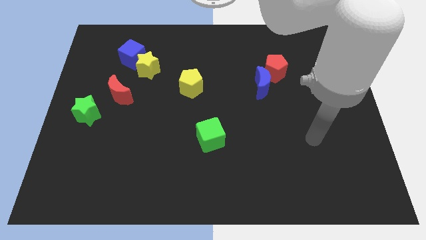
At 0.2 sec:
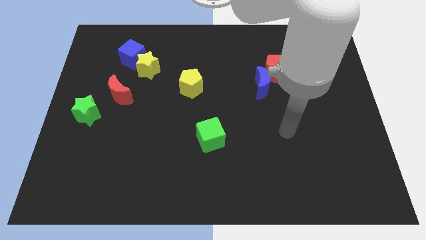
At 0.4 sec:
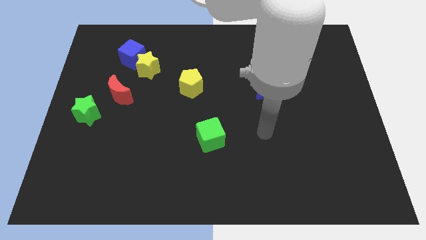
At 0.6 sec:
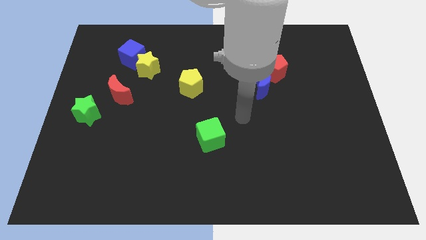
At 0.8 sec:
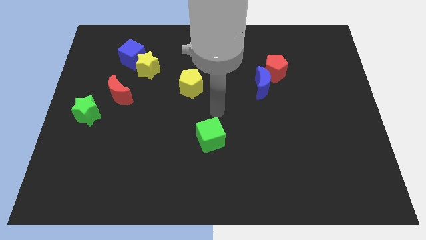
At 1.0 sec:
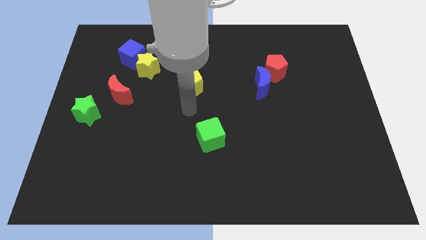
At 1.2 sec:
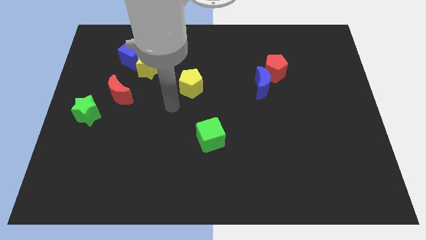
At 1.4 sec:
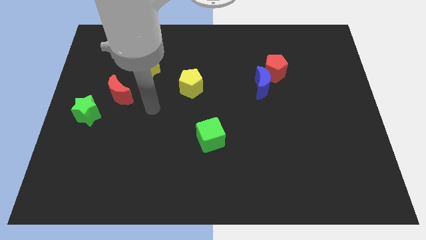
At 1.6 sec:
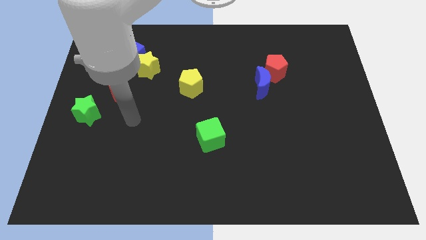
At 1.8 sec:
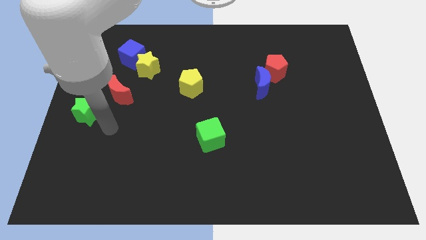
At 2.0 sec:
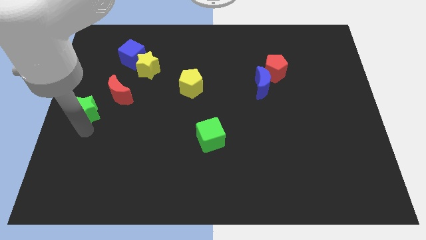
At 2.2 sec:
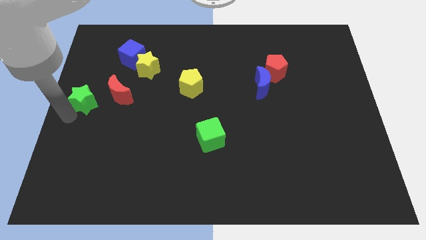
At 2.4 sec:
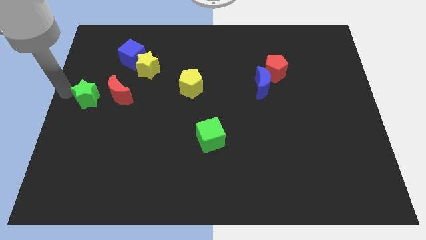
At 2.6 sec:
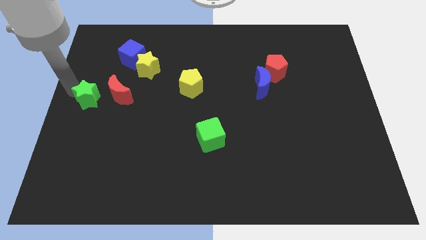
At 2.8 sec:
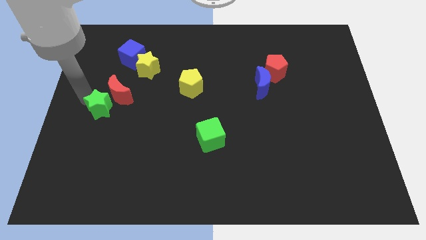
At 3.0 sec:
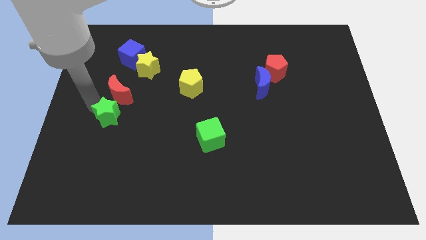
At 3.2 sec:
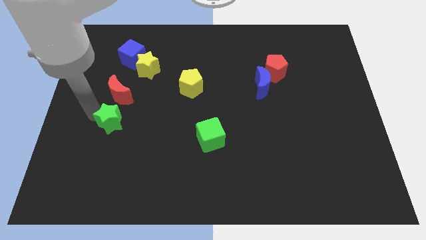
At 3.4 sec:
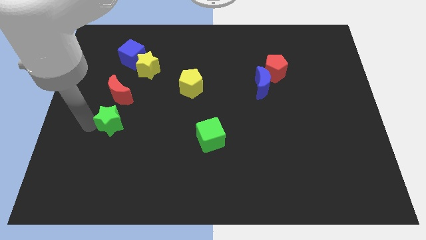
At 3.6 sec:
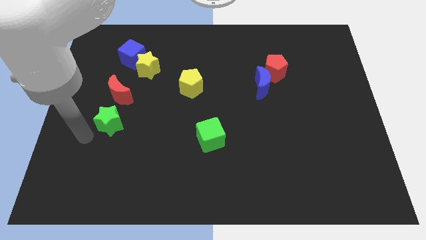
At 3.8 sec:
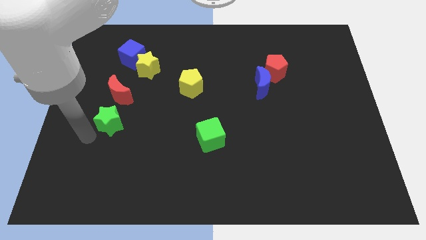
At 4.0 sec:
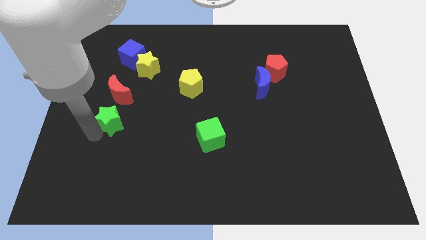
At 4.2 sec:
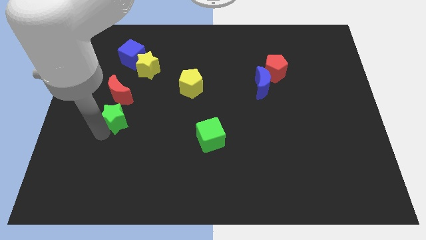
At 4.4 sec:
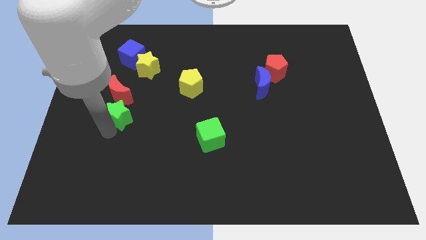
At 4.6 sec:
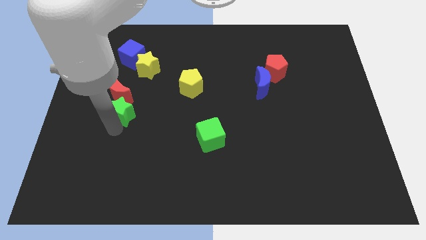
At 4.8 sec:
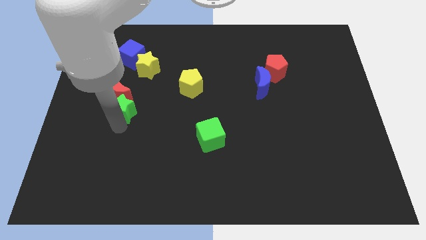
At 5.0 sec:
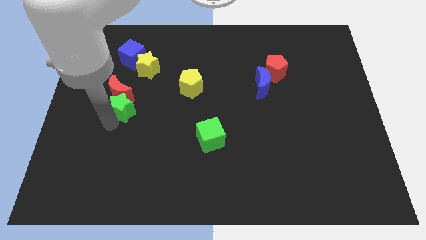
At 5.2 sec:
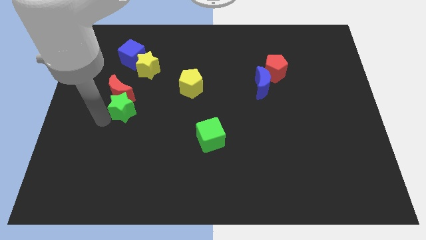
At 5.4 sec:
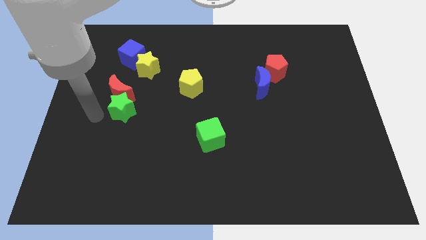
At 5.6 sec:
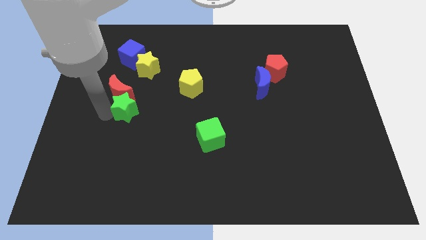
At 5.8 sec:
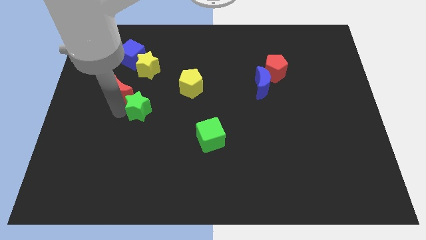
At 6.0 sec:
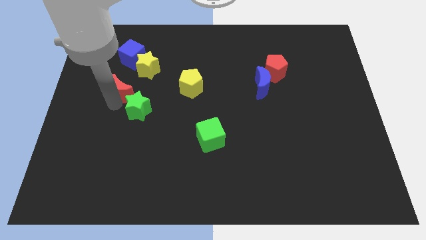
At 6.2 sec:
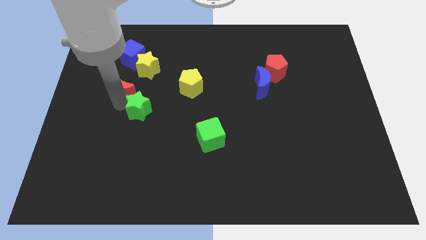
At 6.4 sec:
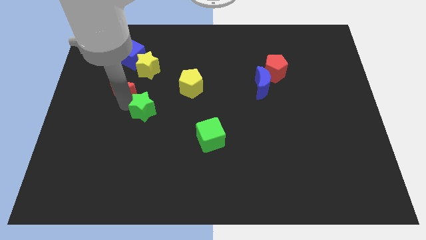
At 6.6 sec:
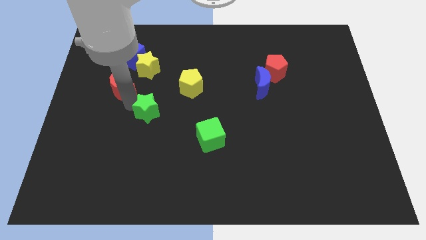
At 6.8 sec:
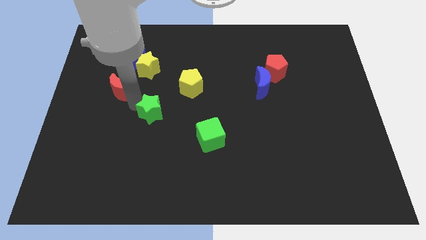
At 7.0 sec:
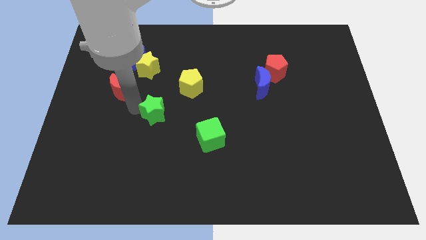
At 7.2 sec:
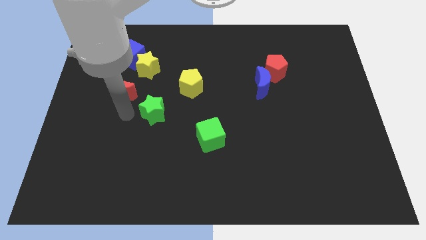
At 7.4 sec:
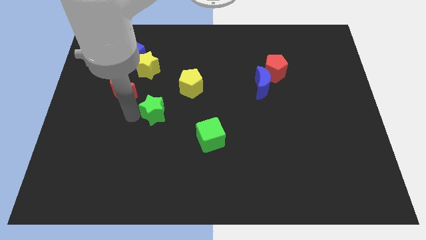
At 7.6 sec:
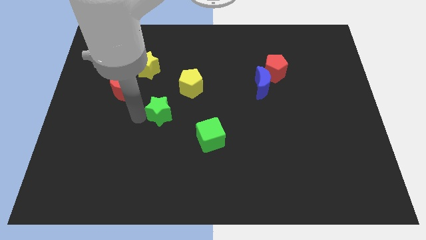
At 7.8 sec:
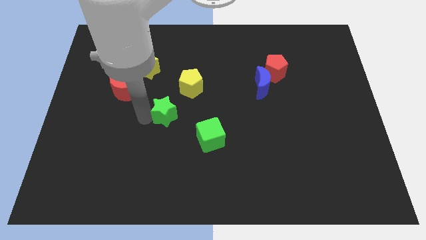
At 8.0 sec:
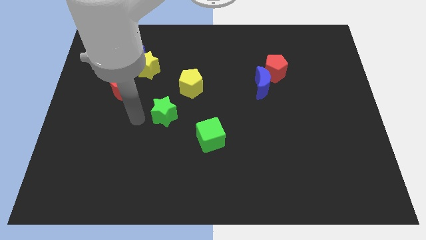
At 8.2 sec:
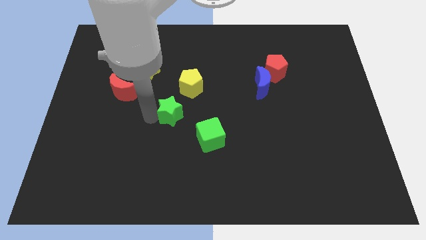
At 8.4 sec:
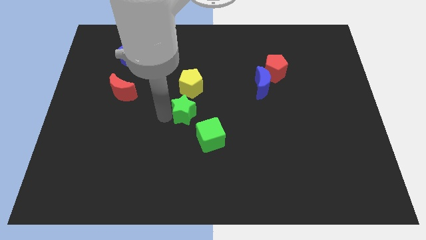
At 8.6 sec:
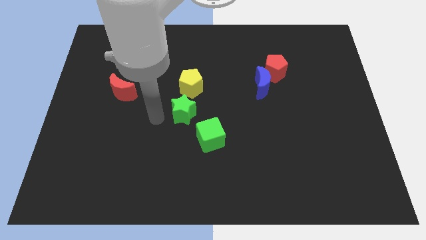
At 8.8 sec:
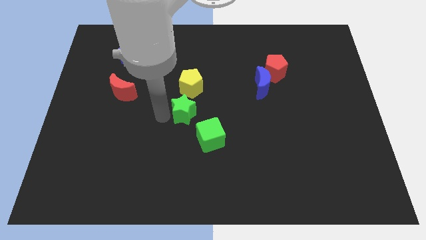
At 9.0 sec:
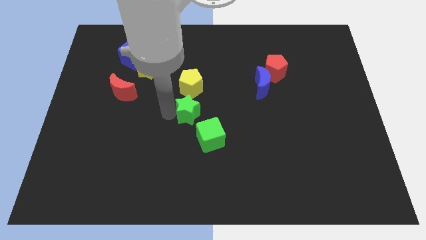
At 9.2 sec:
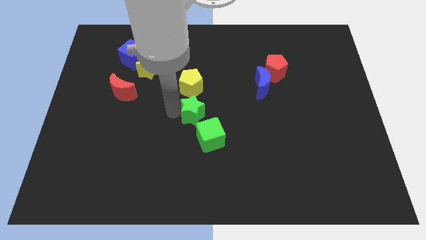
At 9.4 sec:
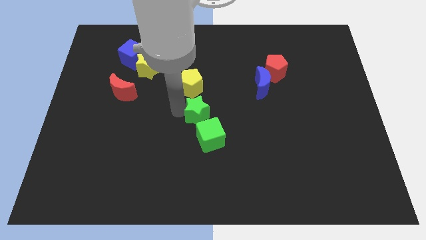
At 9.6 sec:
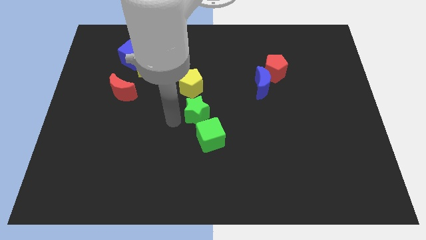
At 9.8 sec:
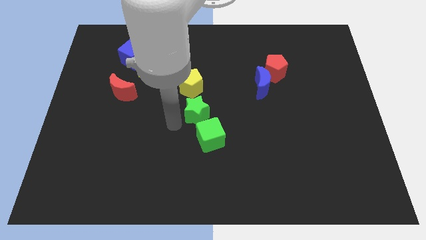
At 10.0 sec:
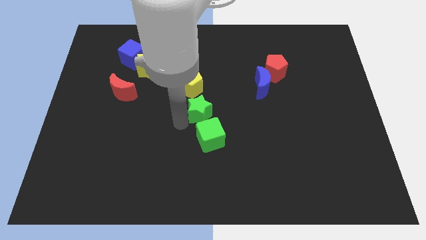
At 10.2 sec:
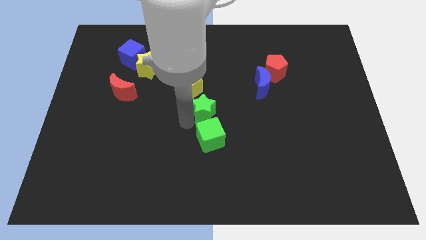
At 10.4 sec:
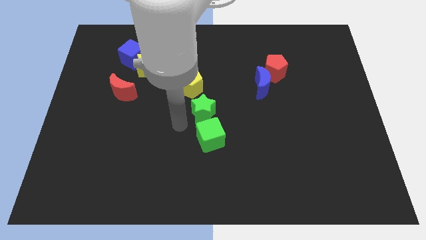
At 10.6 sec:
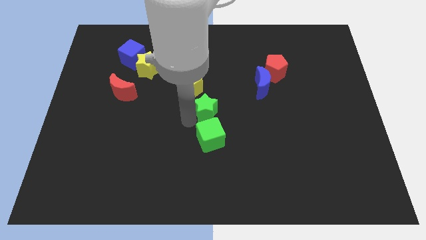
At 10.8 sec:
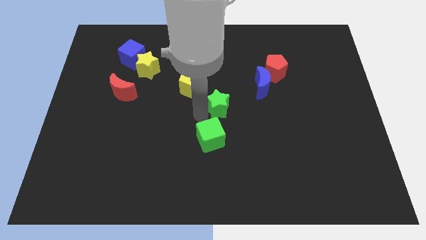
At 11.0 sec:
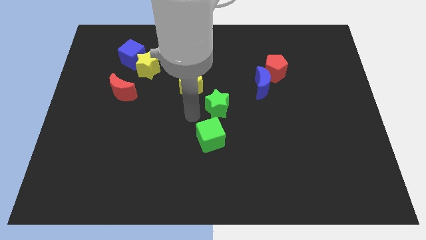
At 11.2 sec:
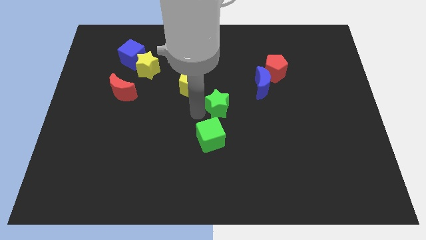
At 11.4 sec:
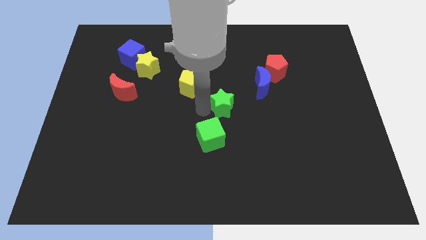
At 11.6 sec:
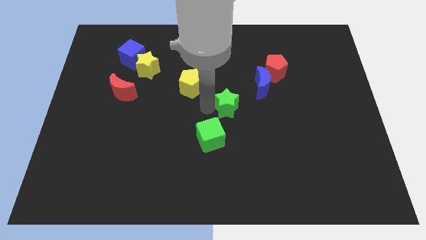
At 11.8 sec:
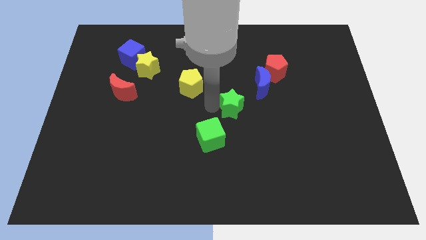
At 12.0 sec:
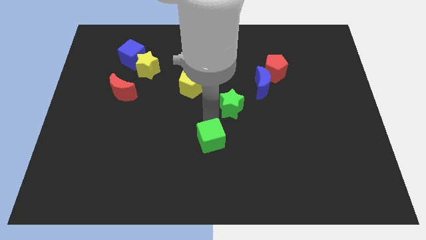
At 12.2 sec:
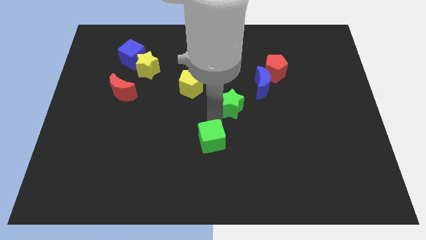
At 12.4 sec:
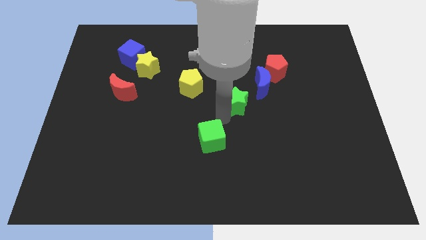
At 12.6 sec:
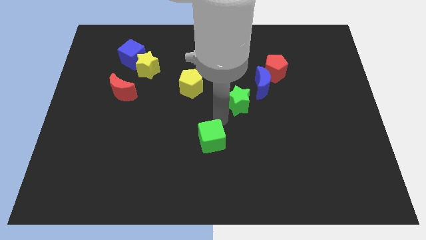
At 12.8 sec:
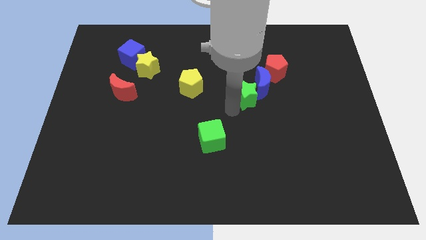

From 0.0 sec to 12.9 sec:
move the green star towards the blue moon
